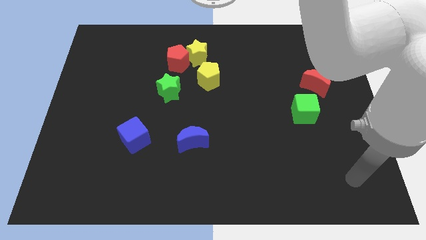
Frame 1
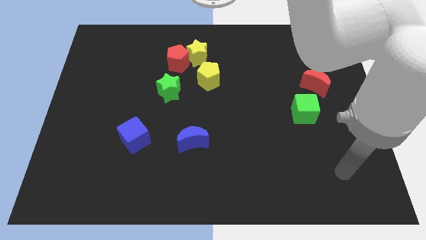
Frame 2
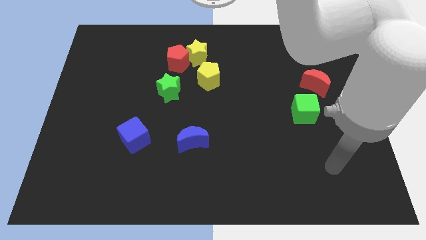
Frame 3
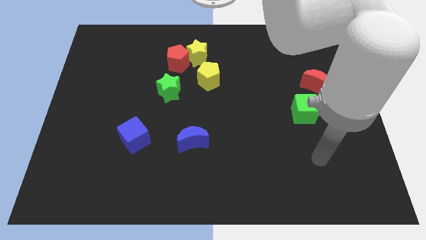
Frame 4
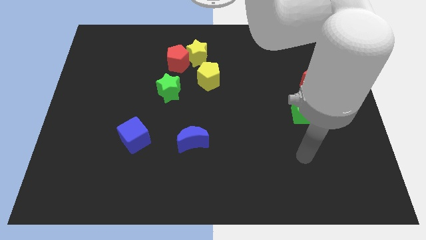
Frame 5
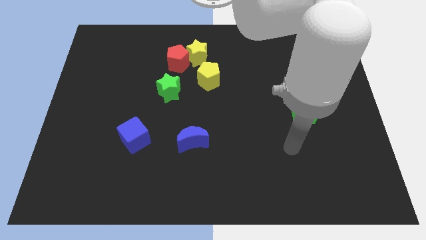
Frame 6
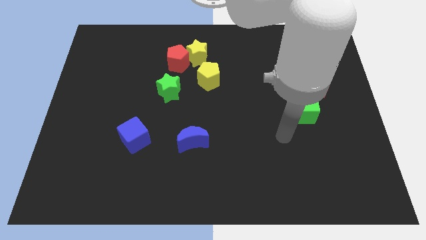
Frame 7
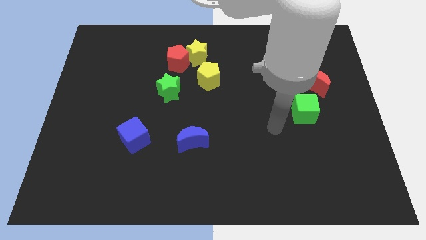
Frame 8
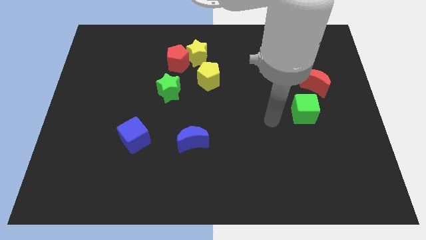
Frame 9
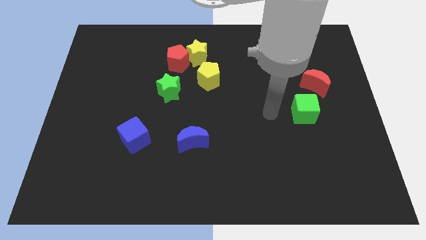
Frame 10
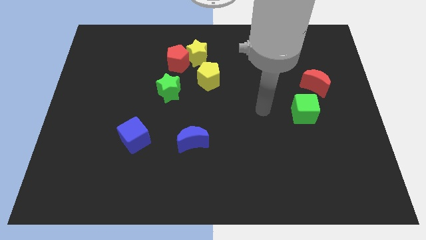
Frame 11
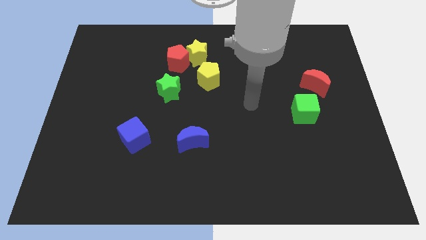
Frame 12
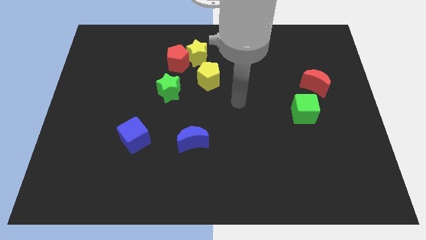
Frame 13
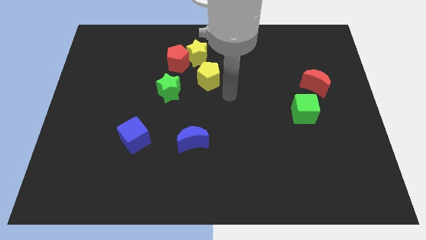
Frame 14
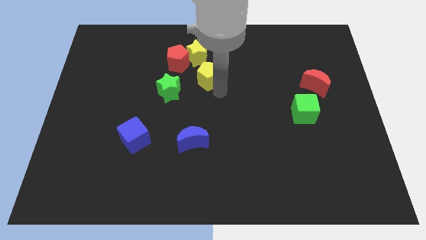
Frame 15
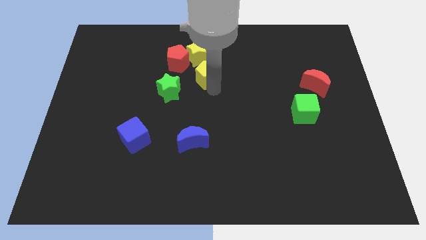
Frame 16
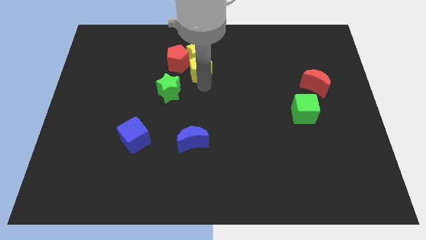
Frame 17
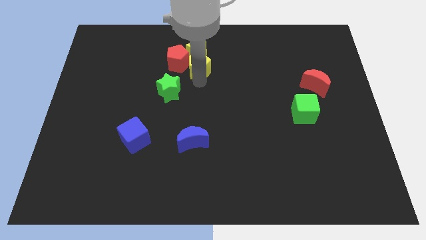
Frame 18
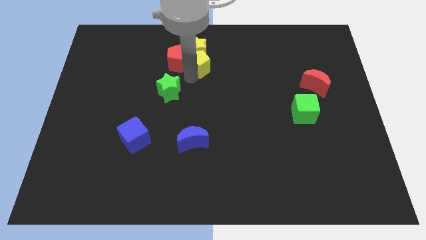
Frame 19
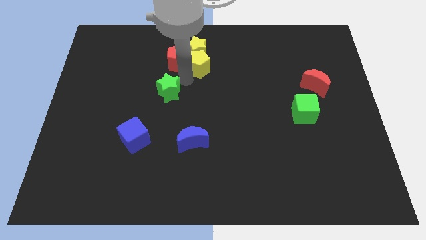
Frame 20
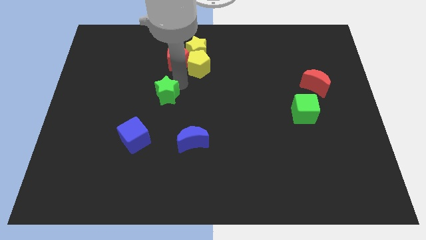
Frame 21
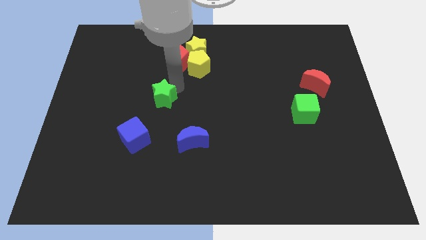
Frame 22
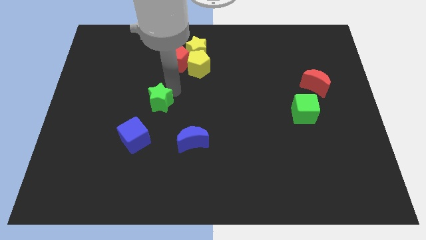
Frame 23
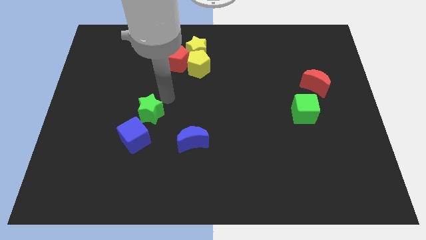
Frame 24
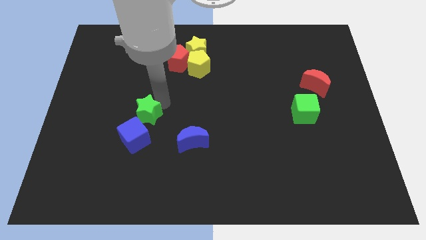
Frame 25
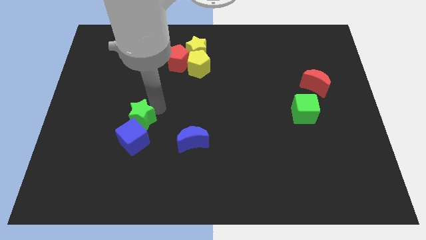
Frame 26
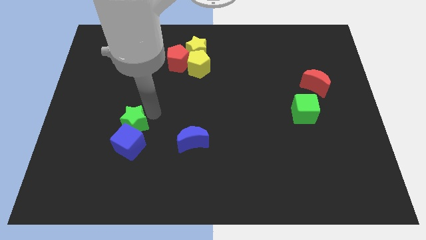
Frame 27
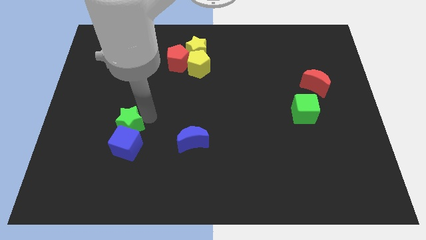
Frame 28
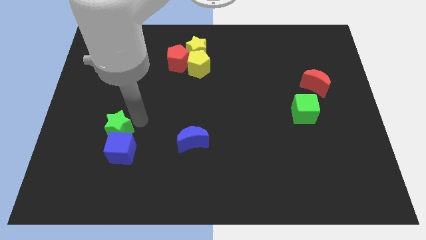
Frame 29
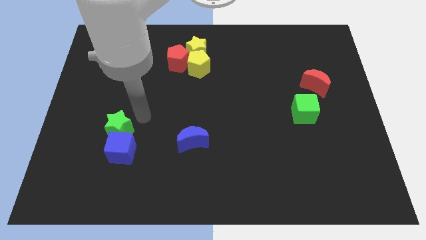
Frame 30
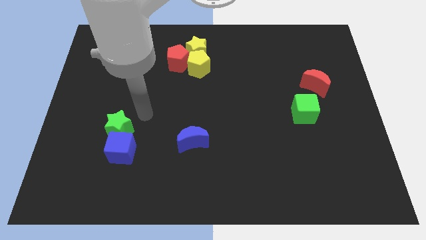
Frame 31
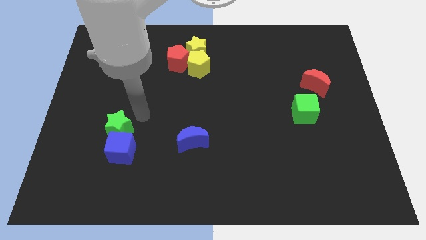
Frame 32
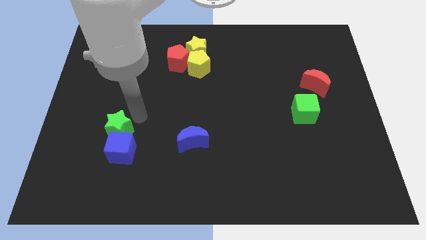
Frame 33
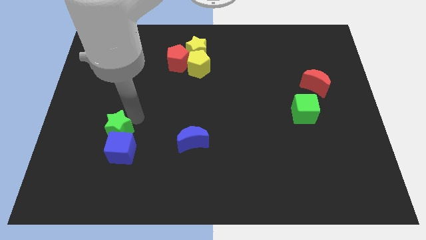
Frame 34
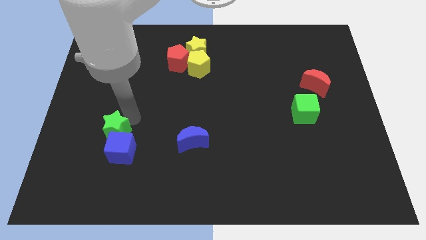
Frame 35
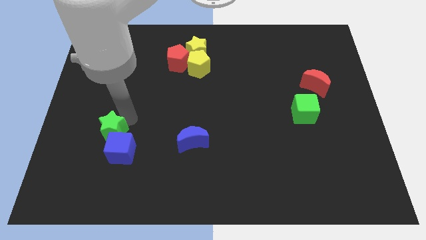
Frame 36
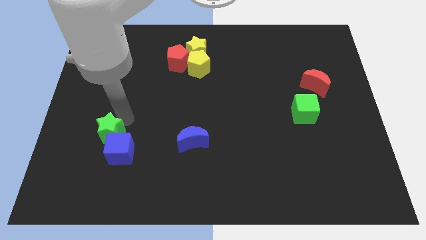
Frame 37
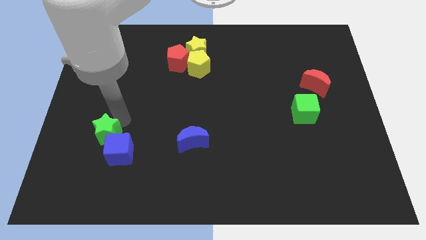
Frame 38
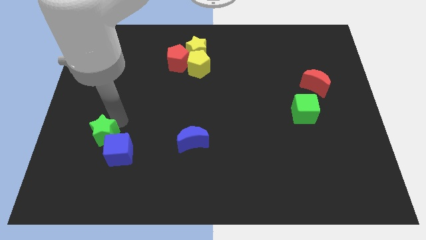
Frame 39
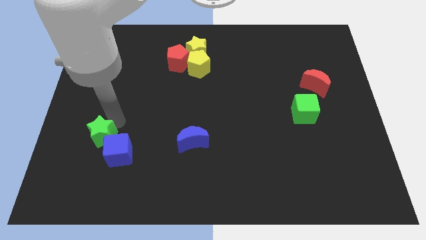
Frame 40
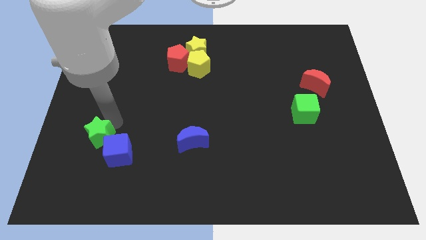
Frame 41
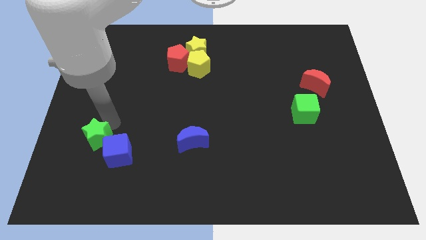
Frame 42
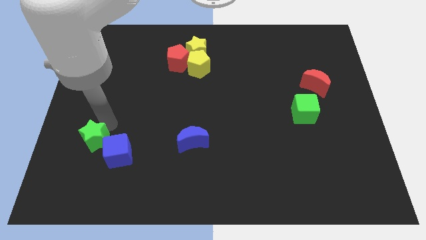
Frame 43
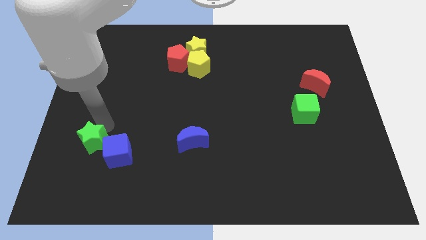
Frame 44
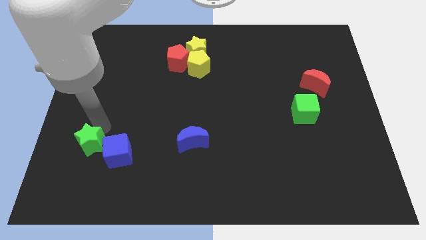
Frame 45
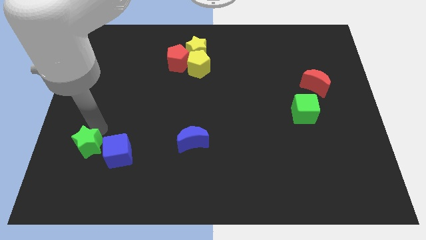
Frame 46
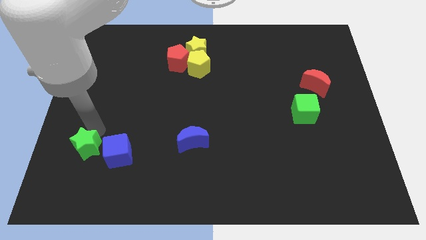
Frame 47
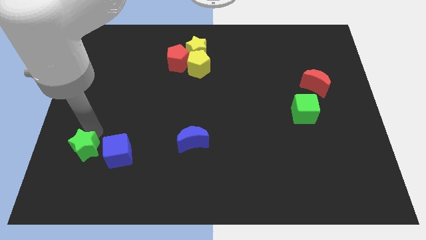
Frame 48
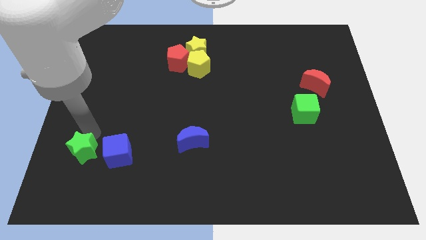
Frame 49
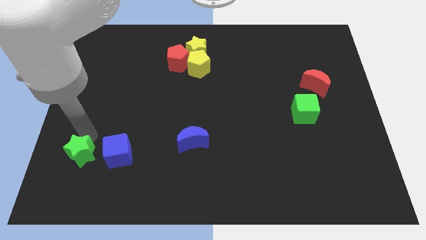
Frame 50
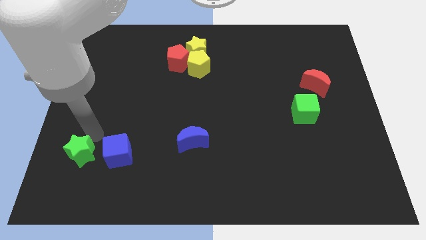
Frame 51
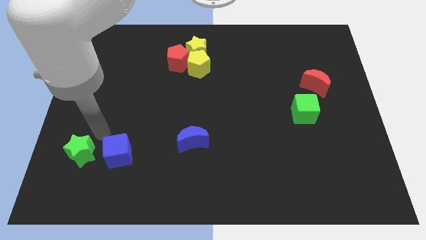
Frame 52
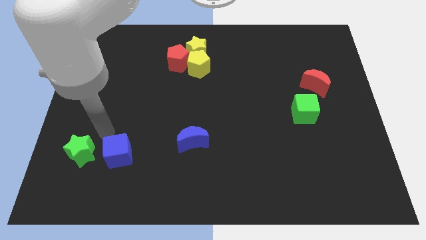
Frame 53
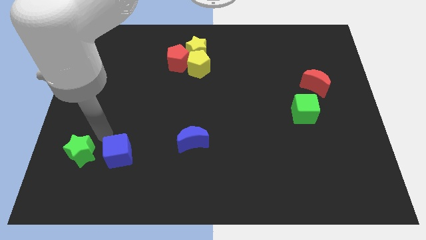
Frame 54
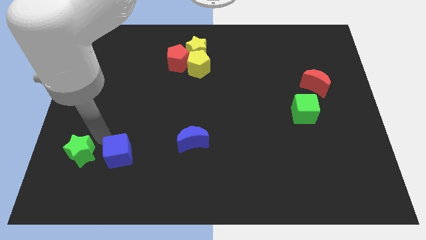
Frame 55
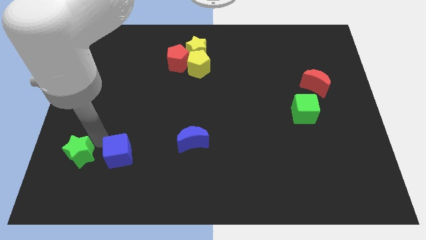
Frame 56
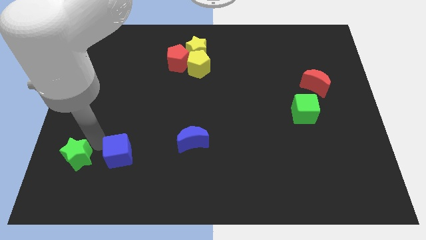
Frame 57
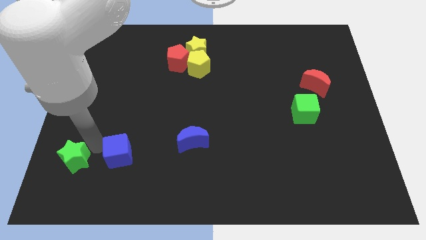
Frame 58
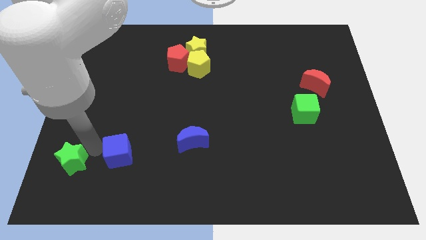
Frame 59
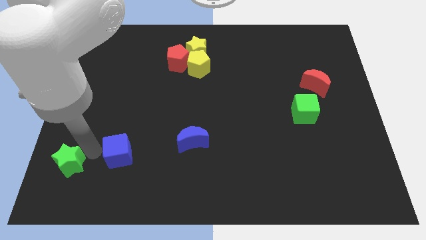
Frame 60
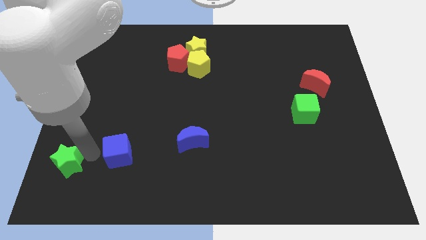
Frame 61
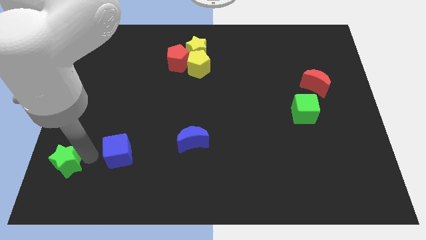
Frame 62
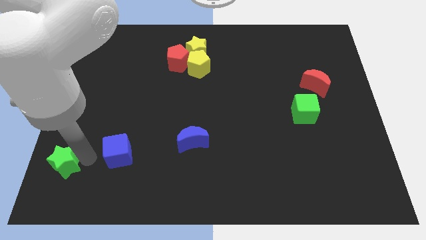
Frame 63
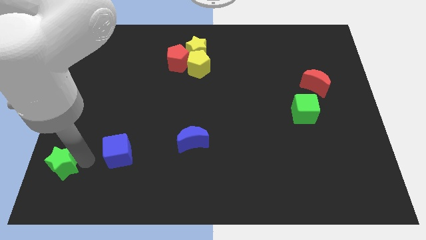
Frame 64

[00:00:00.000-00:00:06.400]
push the green star to the bottom left corner

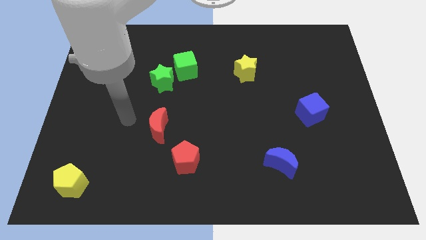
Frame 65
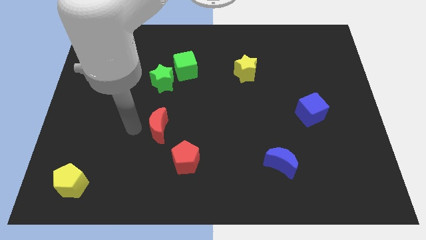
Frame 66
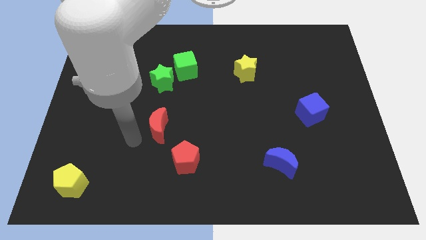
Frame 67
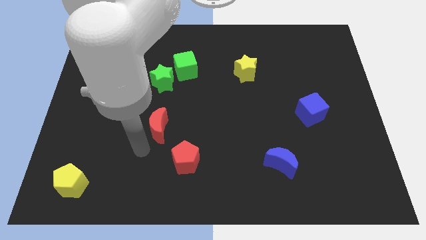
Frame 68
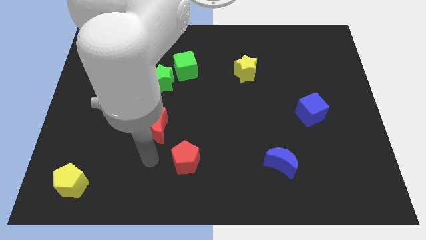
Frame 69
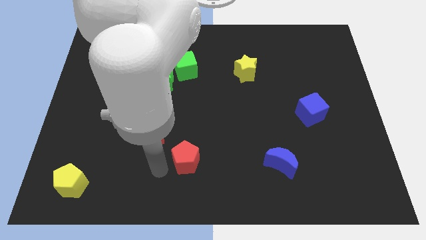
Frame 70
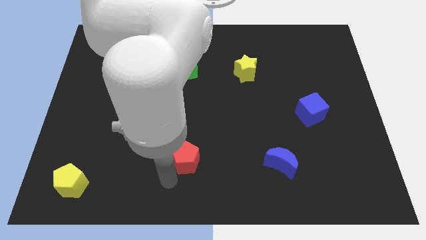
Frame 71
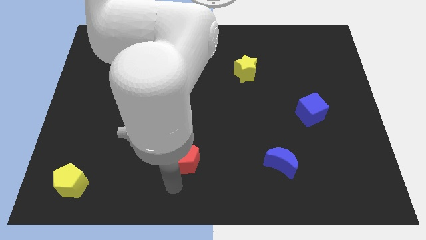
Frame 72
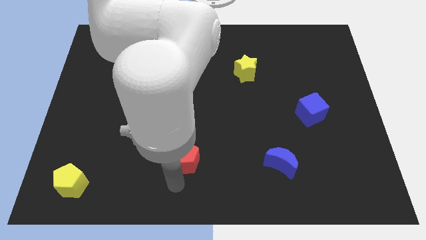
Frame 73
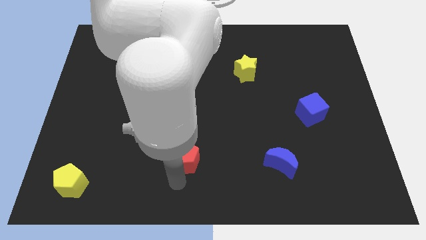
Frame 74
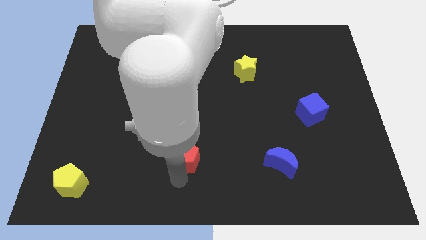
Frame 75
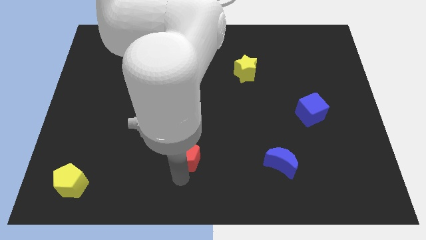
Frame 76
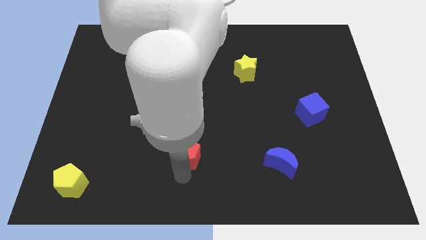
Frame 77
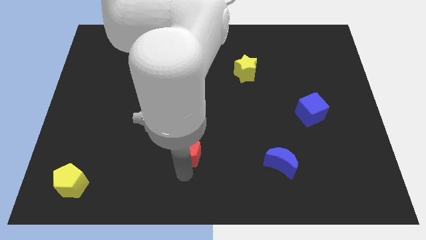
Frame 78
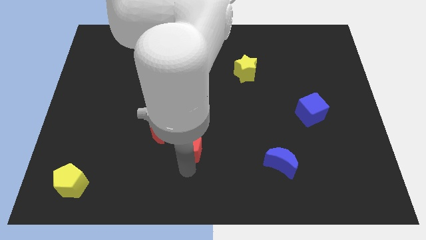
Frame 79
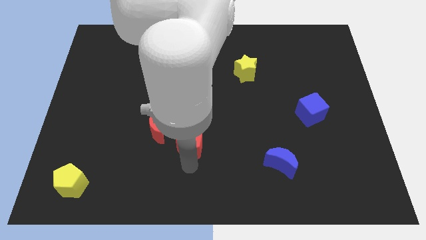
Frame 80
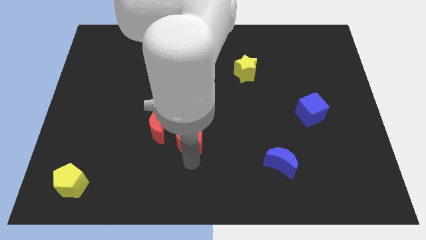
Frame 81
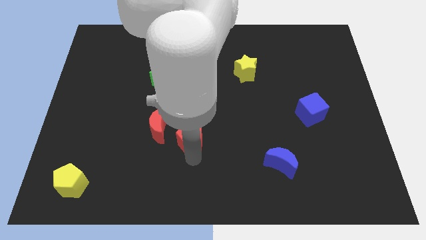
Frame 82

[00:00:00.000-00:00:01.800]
push the red pentagon to the middle
